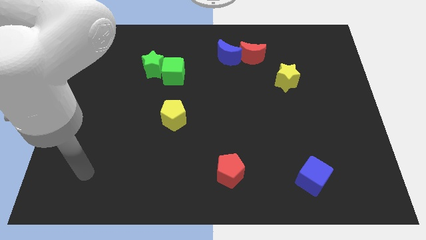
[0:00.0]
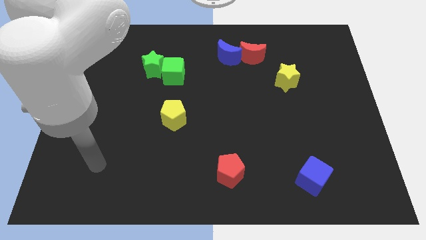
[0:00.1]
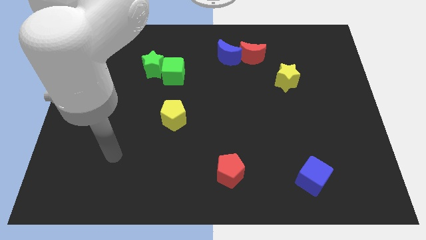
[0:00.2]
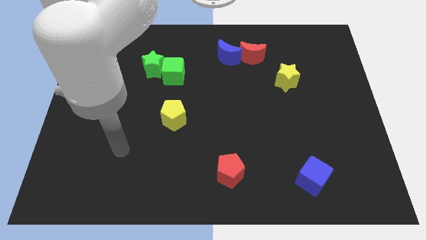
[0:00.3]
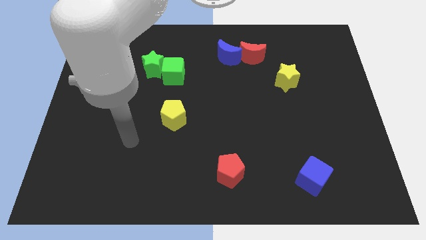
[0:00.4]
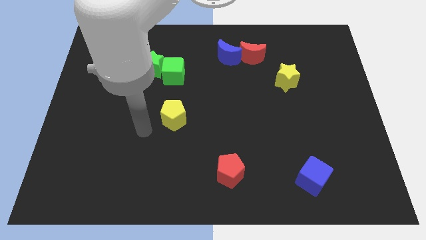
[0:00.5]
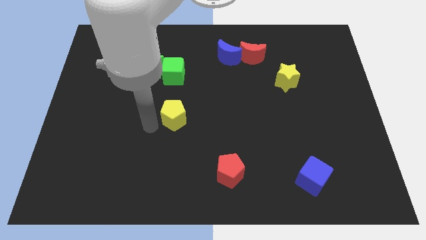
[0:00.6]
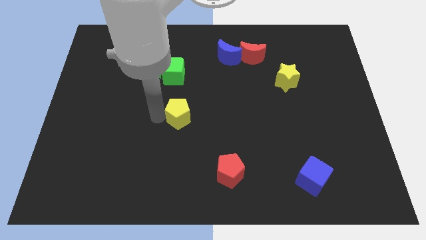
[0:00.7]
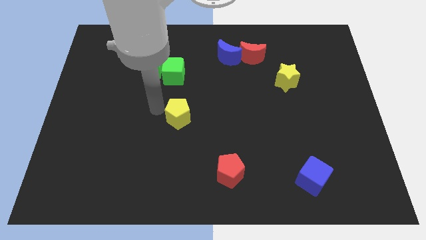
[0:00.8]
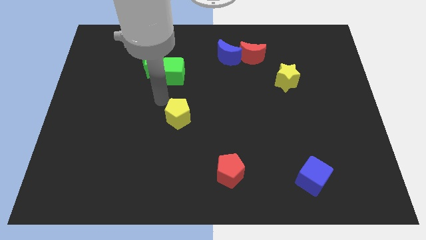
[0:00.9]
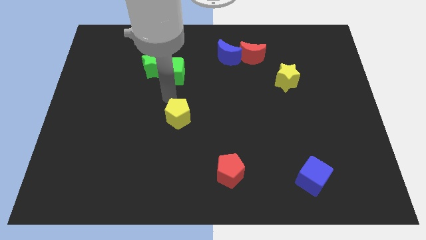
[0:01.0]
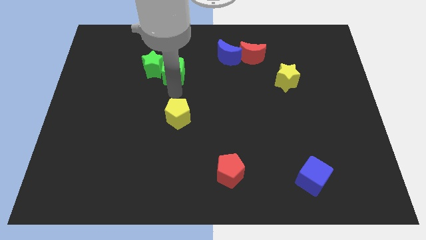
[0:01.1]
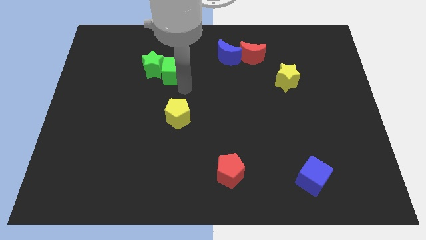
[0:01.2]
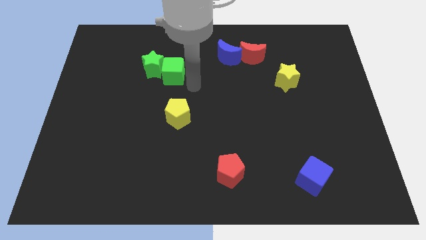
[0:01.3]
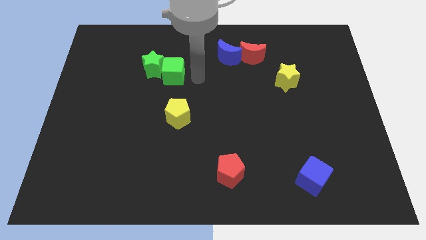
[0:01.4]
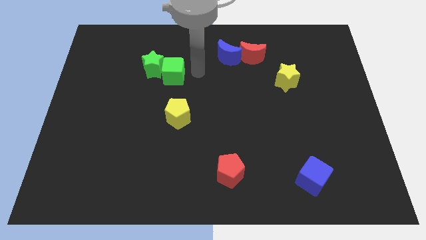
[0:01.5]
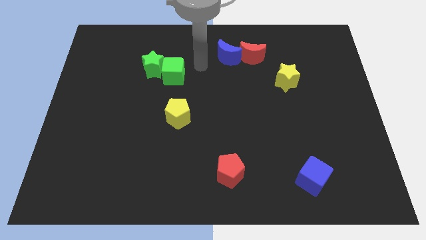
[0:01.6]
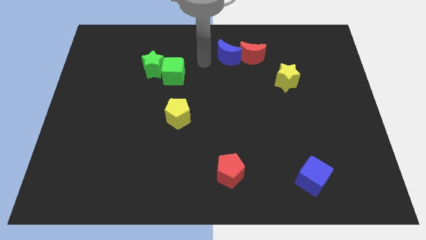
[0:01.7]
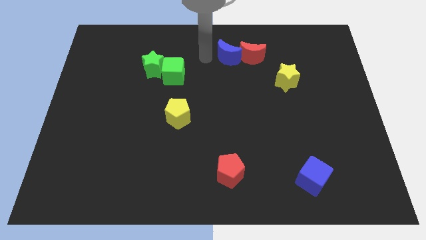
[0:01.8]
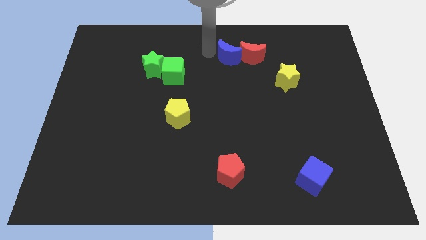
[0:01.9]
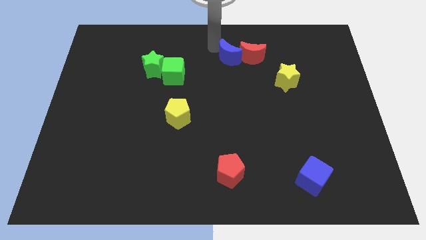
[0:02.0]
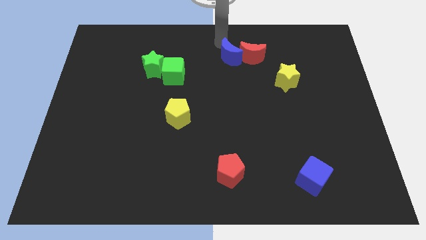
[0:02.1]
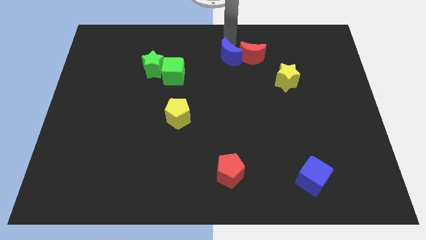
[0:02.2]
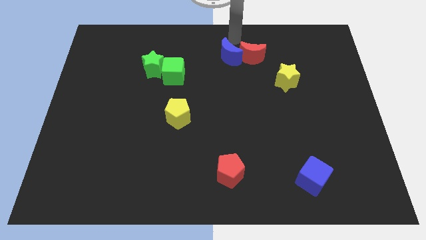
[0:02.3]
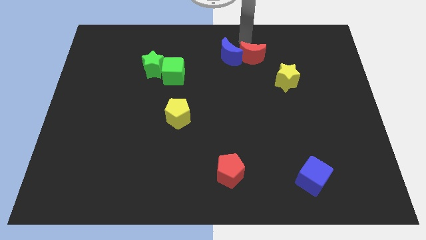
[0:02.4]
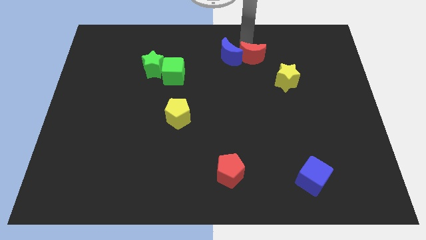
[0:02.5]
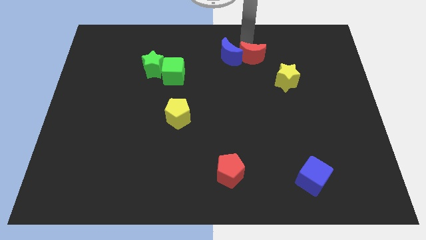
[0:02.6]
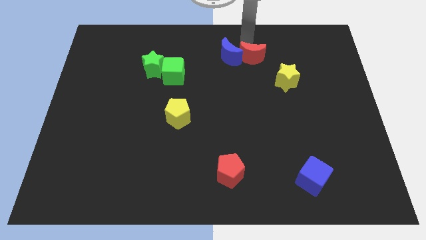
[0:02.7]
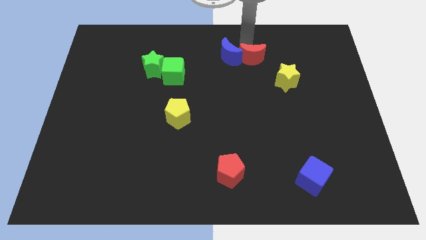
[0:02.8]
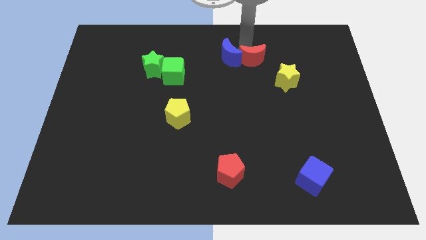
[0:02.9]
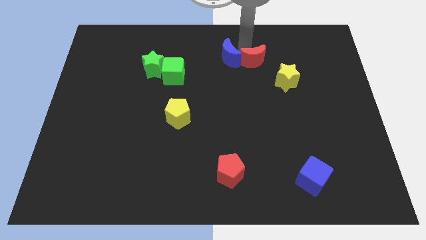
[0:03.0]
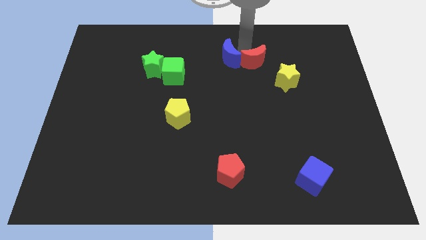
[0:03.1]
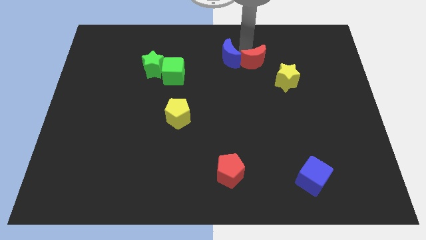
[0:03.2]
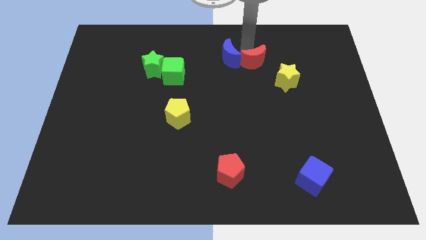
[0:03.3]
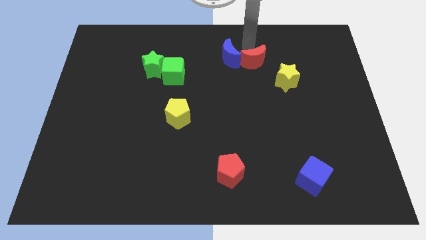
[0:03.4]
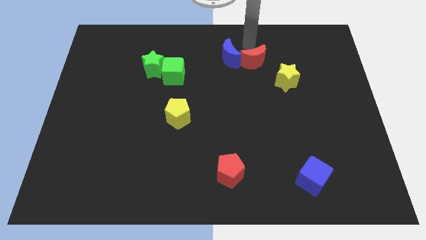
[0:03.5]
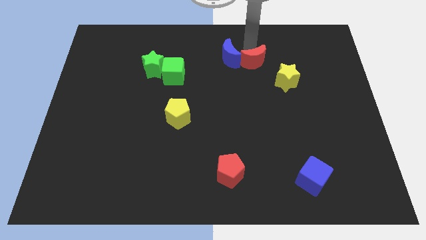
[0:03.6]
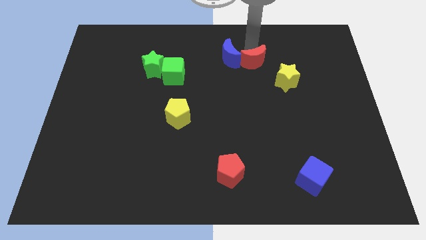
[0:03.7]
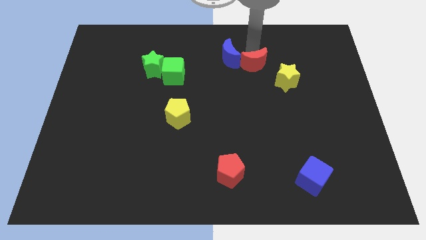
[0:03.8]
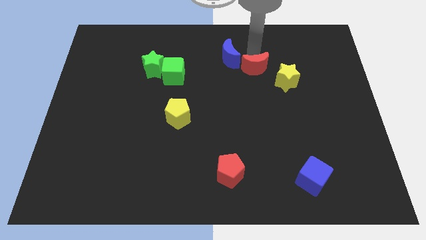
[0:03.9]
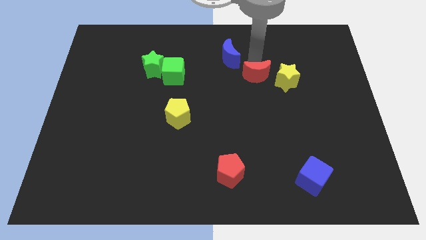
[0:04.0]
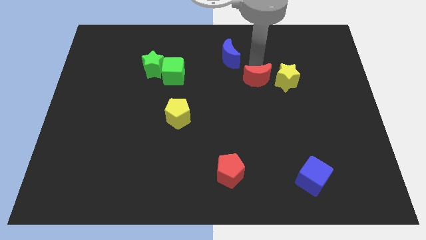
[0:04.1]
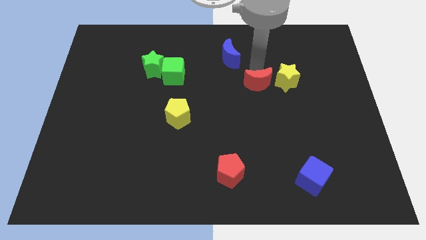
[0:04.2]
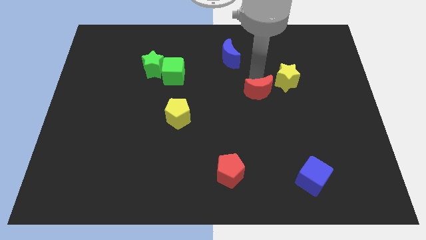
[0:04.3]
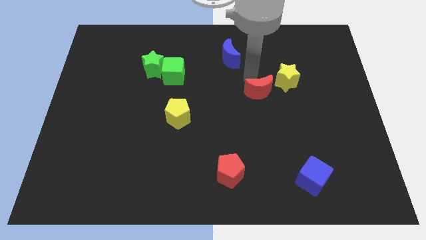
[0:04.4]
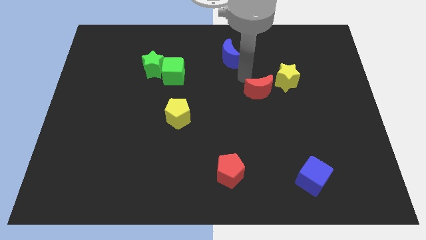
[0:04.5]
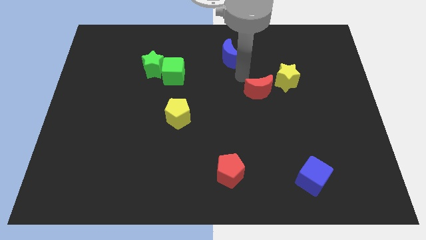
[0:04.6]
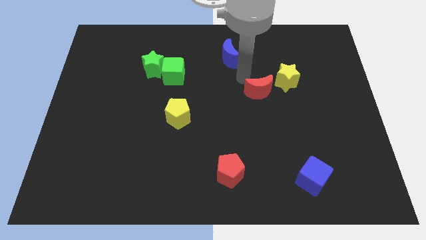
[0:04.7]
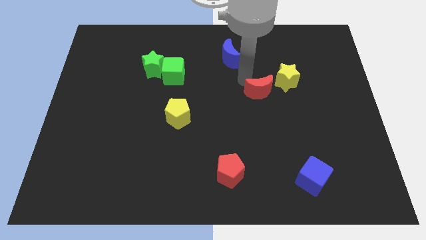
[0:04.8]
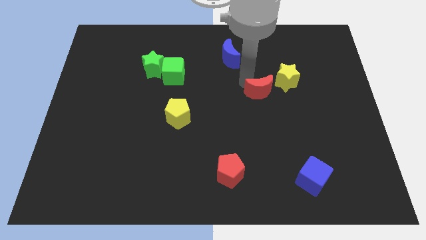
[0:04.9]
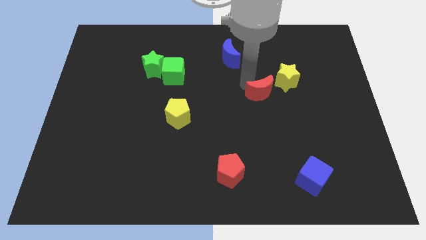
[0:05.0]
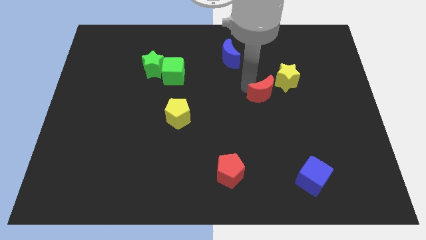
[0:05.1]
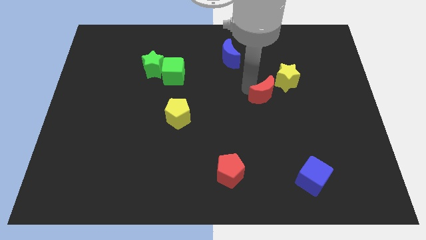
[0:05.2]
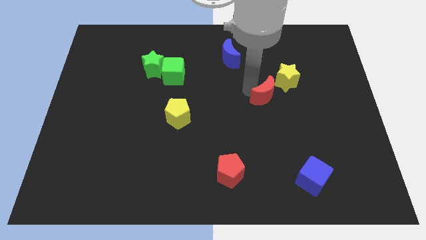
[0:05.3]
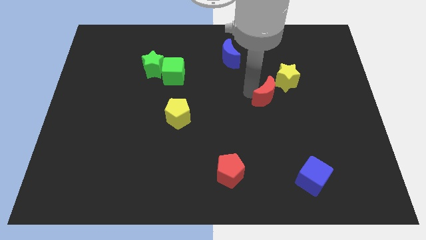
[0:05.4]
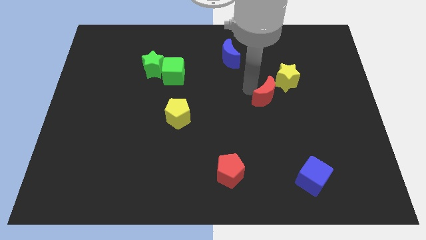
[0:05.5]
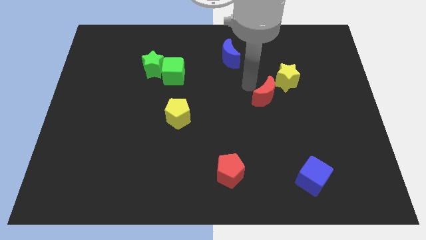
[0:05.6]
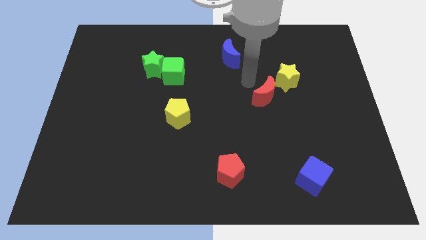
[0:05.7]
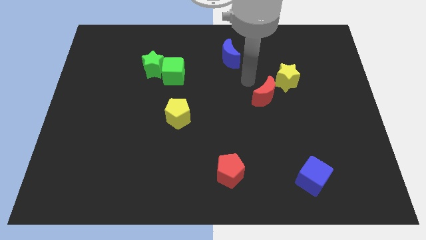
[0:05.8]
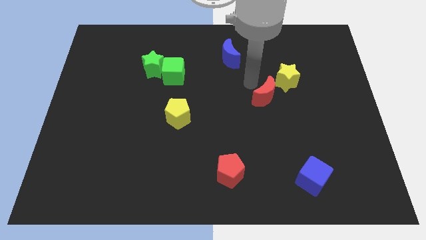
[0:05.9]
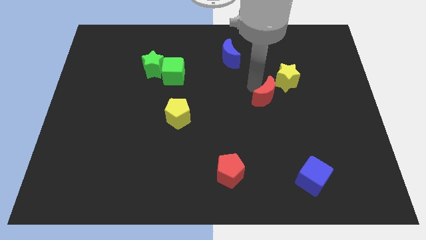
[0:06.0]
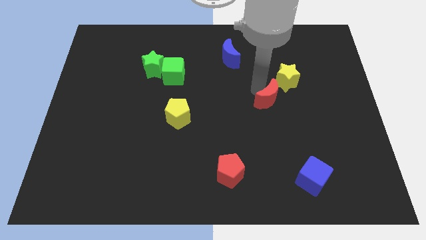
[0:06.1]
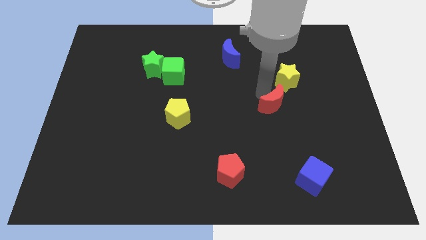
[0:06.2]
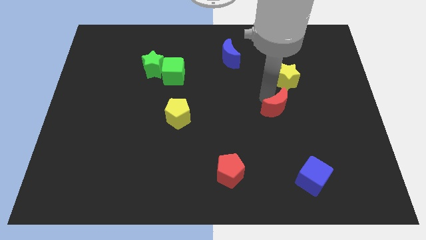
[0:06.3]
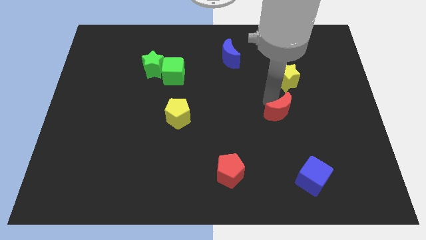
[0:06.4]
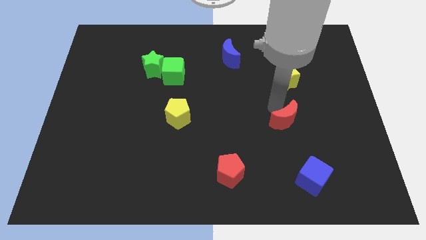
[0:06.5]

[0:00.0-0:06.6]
put the red moon to the top of the blue cube

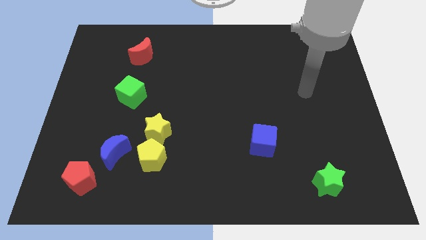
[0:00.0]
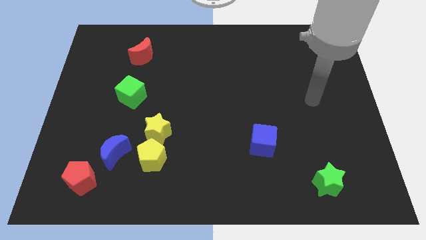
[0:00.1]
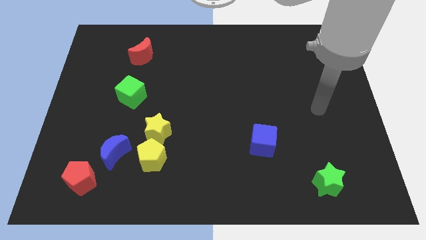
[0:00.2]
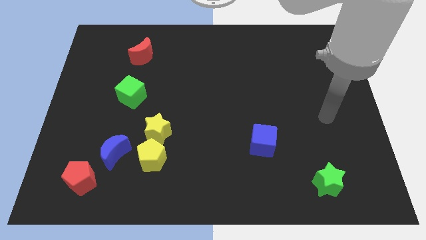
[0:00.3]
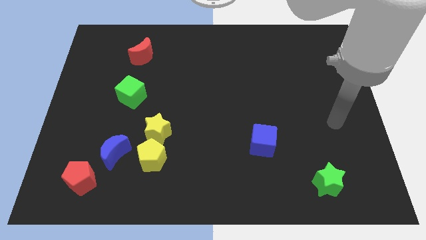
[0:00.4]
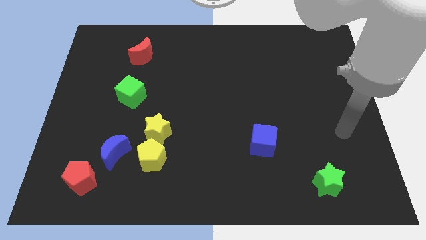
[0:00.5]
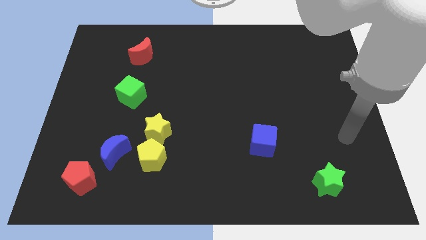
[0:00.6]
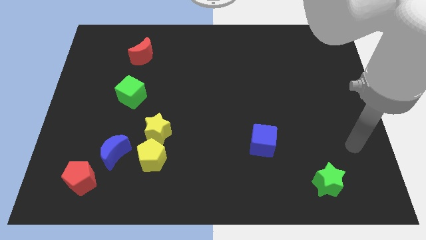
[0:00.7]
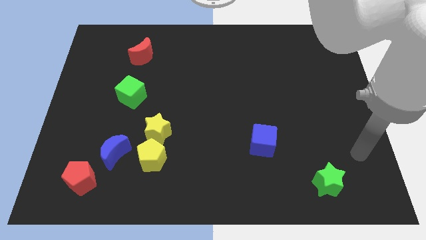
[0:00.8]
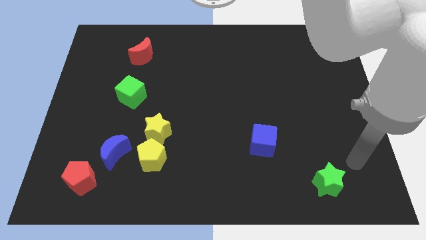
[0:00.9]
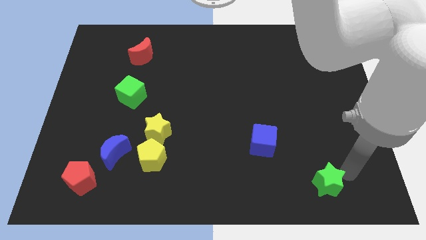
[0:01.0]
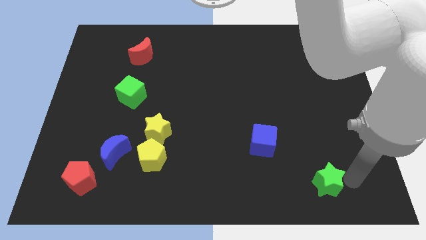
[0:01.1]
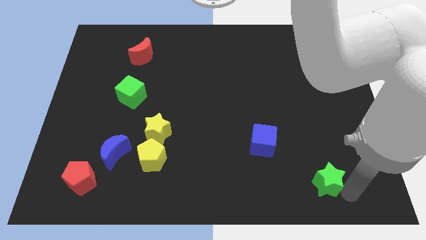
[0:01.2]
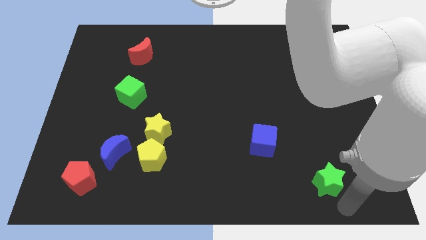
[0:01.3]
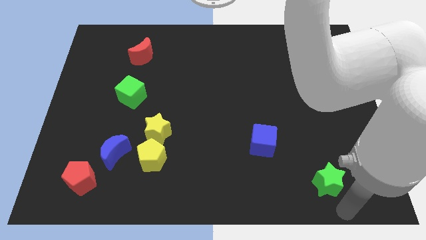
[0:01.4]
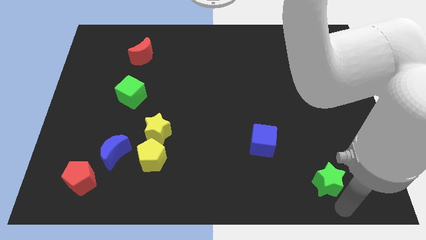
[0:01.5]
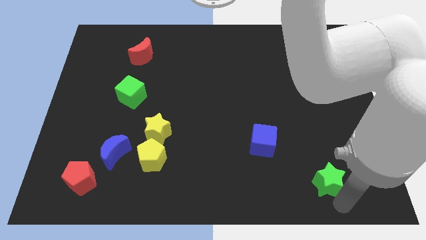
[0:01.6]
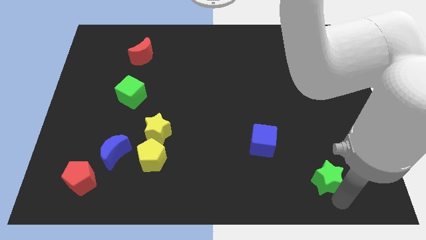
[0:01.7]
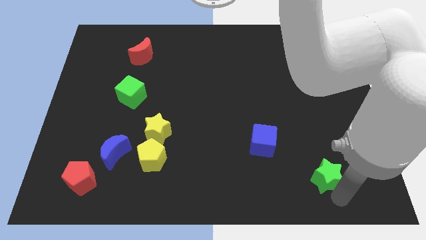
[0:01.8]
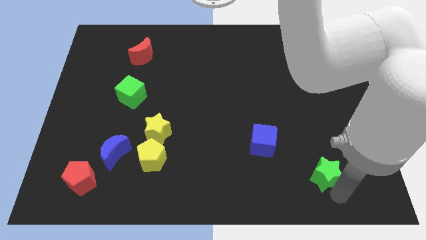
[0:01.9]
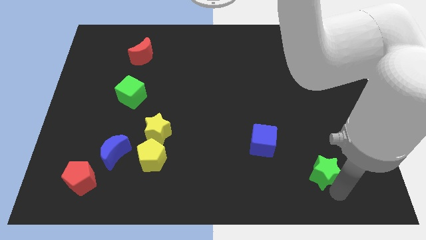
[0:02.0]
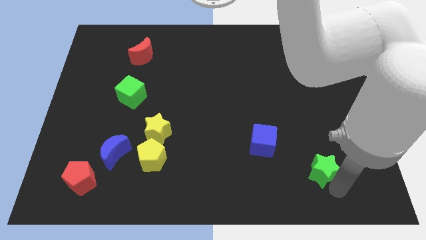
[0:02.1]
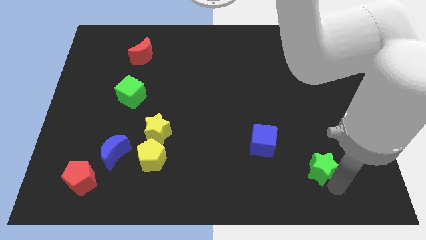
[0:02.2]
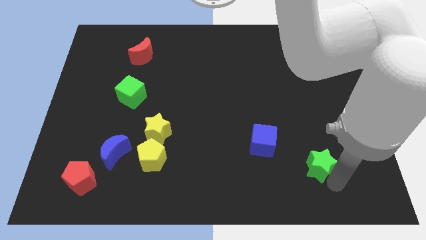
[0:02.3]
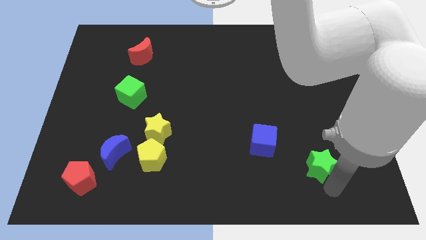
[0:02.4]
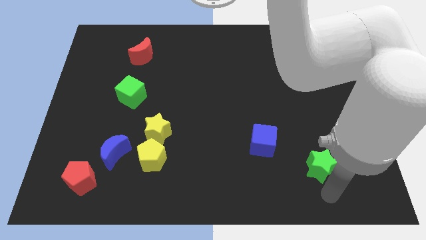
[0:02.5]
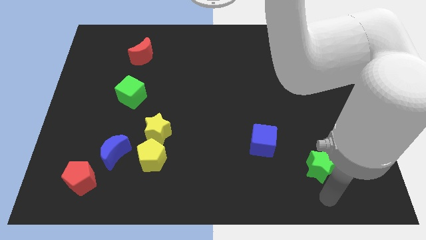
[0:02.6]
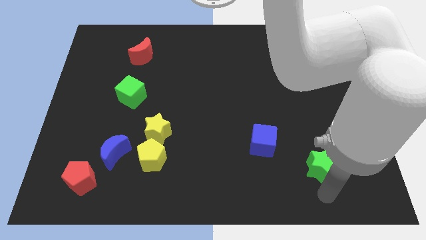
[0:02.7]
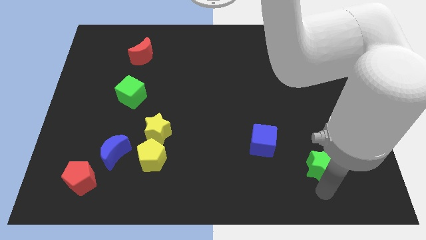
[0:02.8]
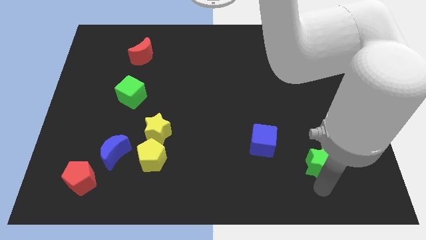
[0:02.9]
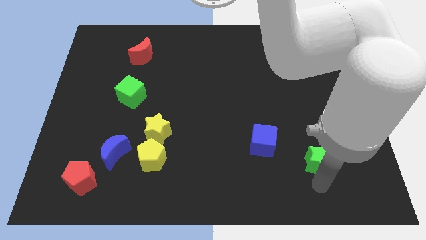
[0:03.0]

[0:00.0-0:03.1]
put the green star right of the blue cube
